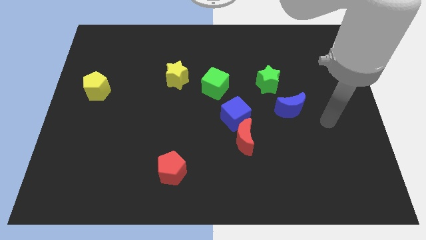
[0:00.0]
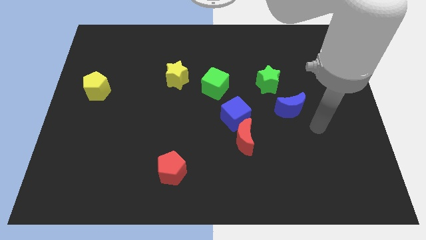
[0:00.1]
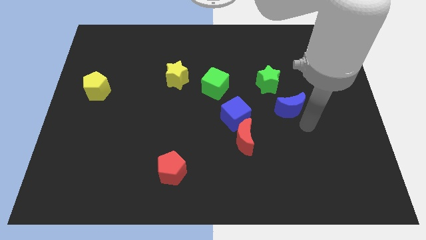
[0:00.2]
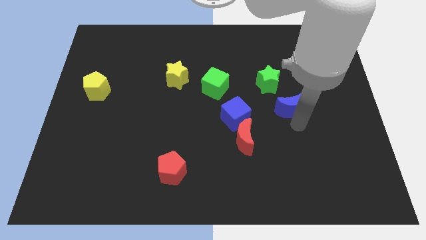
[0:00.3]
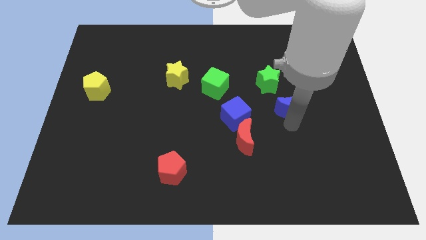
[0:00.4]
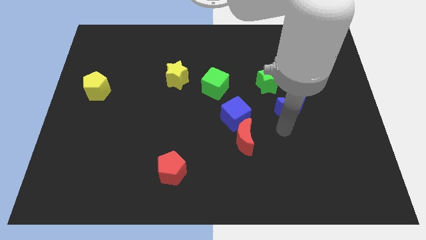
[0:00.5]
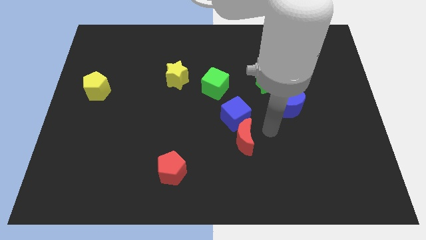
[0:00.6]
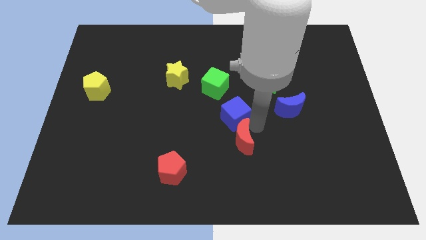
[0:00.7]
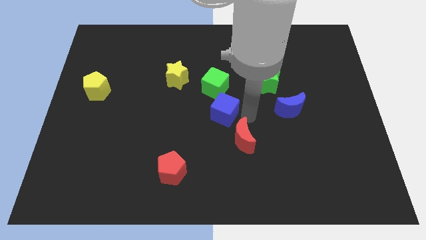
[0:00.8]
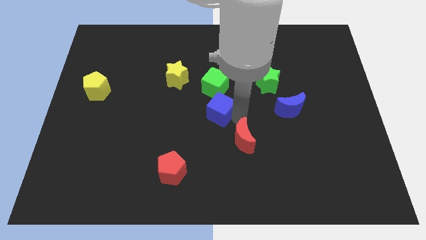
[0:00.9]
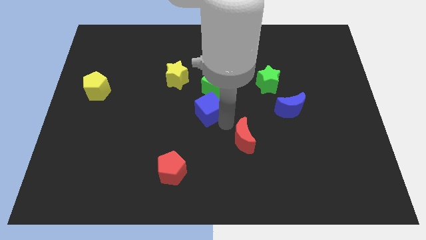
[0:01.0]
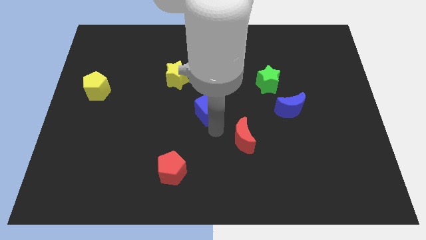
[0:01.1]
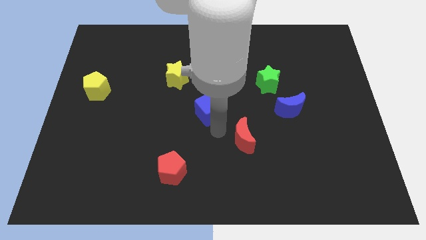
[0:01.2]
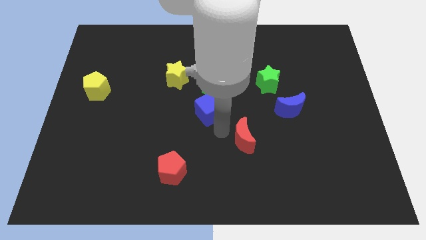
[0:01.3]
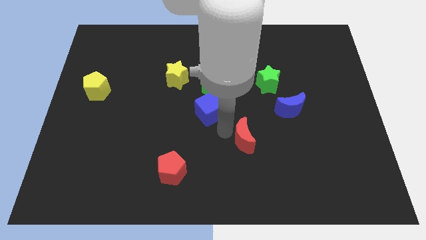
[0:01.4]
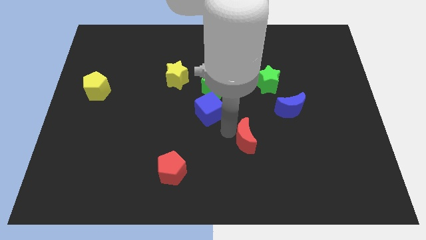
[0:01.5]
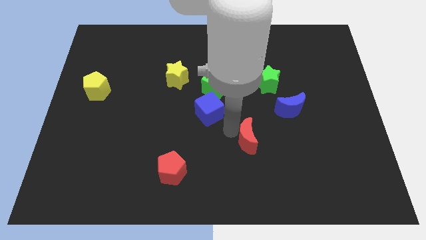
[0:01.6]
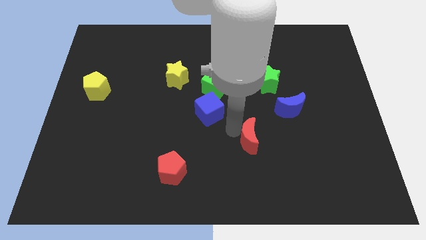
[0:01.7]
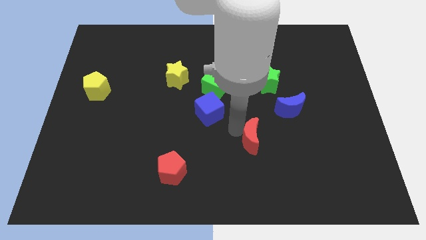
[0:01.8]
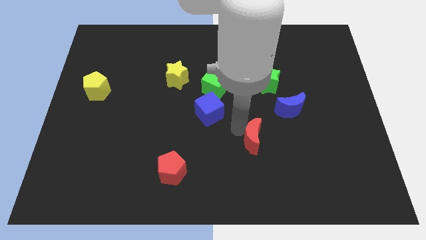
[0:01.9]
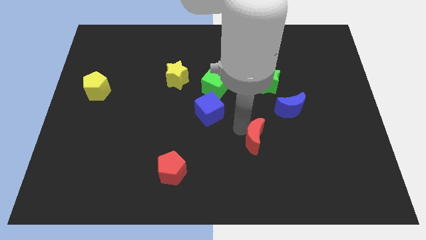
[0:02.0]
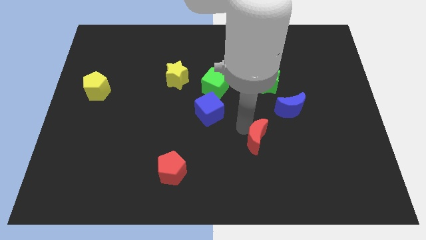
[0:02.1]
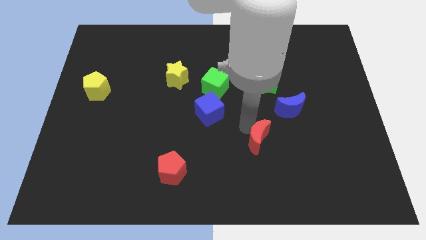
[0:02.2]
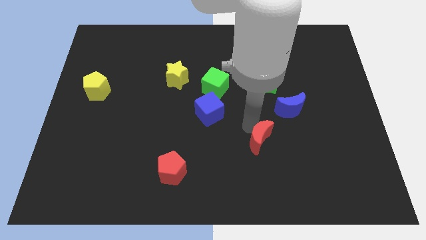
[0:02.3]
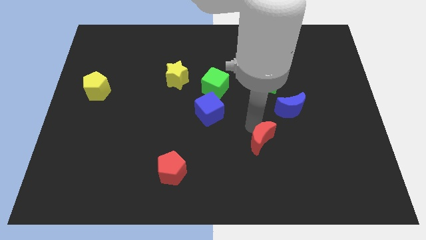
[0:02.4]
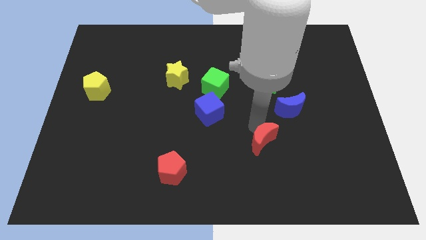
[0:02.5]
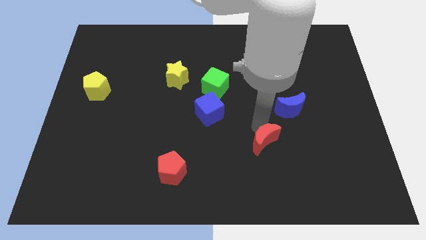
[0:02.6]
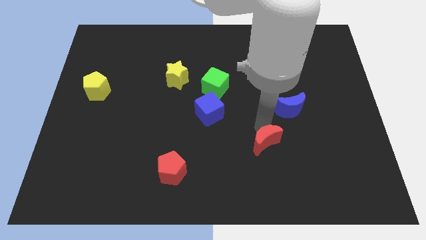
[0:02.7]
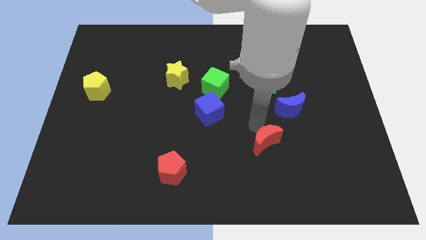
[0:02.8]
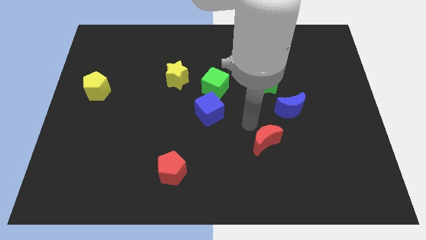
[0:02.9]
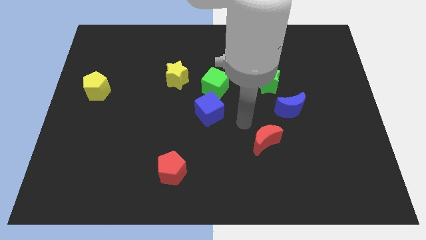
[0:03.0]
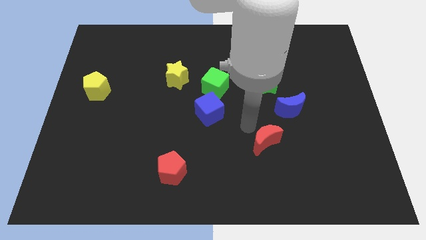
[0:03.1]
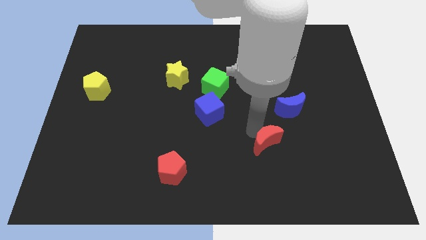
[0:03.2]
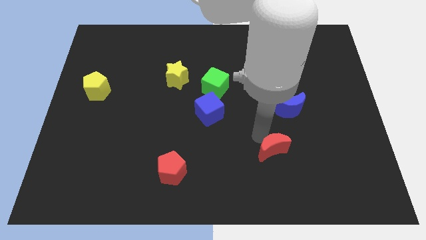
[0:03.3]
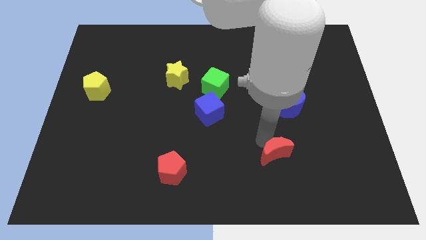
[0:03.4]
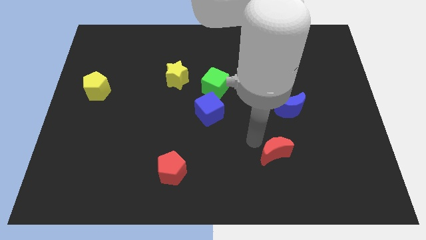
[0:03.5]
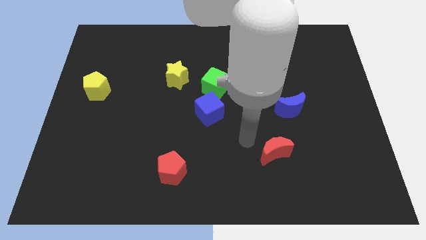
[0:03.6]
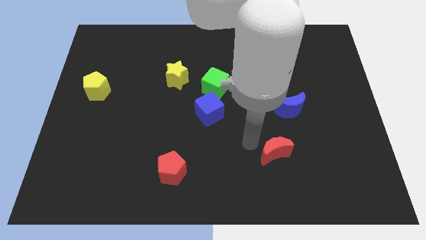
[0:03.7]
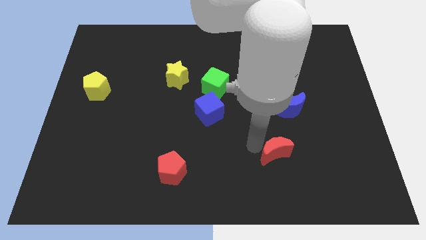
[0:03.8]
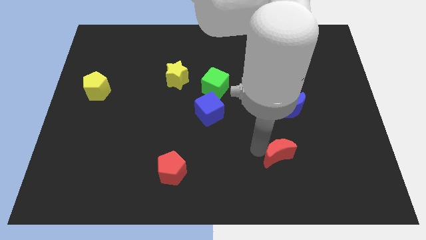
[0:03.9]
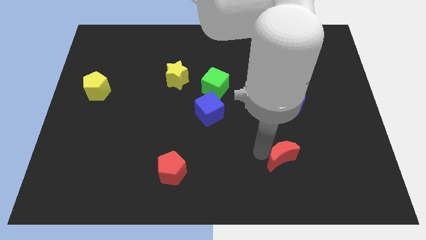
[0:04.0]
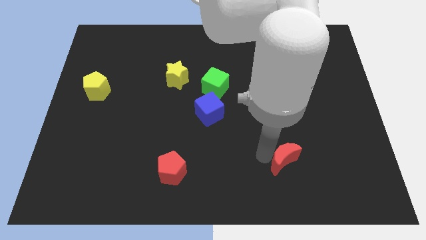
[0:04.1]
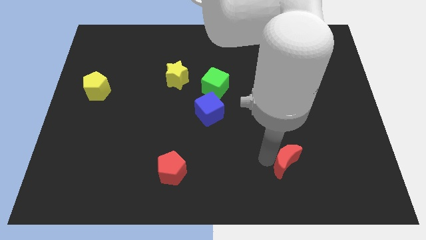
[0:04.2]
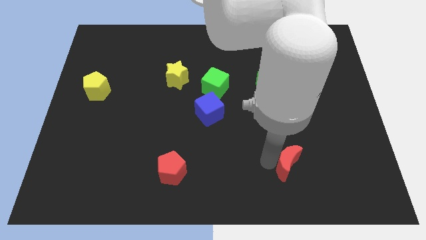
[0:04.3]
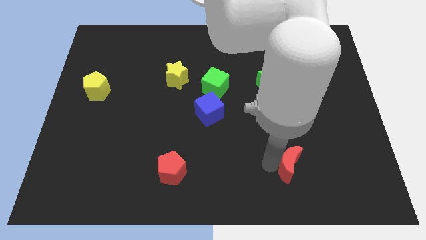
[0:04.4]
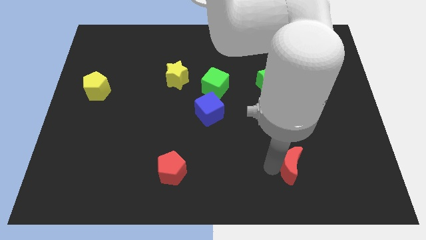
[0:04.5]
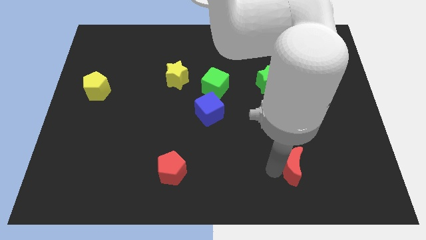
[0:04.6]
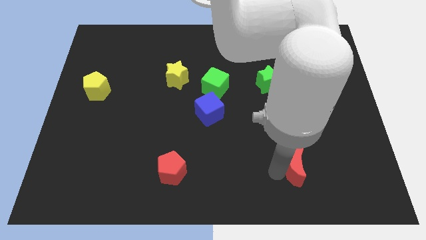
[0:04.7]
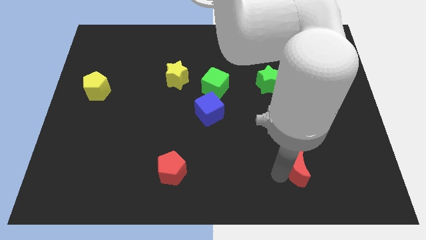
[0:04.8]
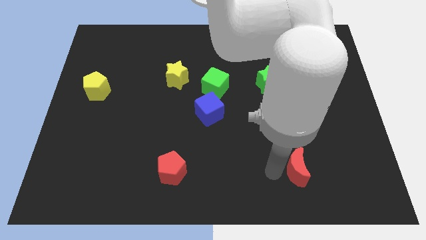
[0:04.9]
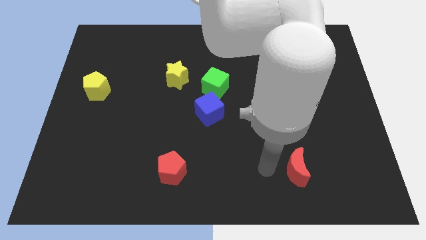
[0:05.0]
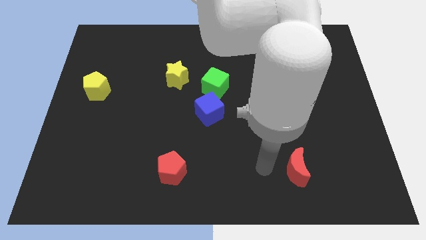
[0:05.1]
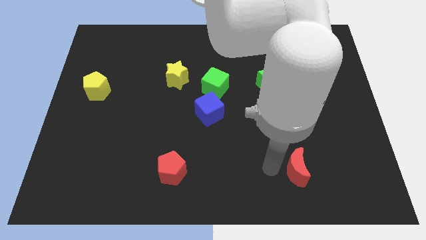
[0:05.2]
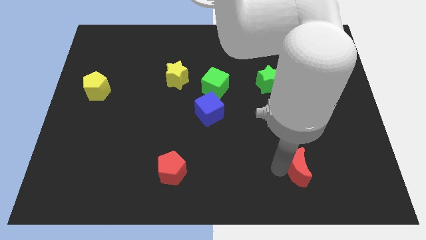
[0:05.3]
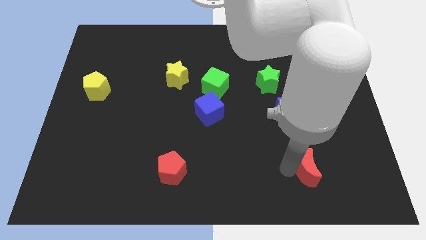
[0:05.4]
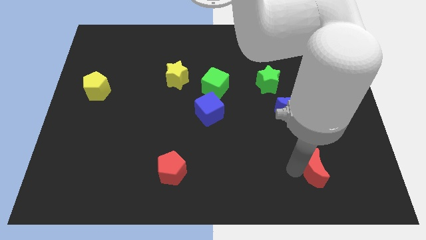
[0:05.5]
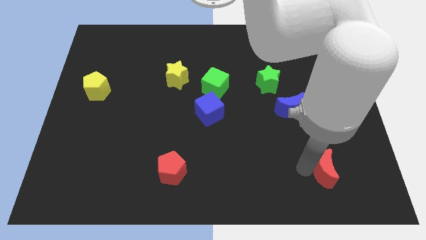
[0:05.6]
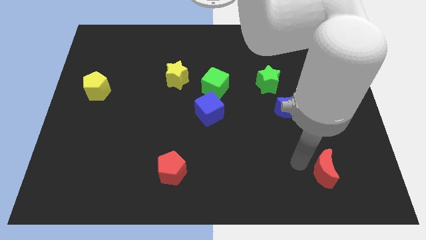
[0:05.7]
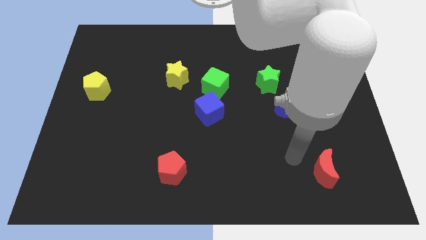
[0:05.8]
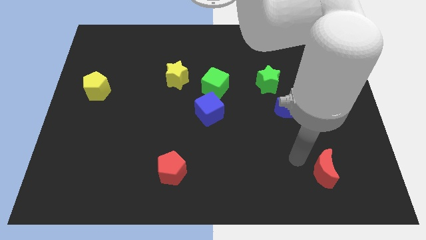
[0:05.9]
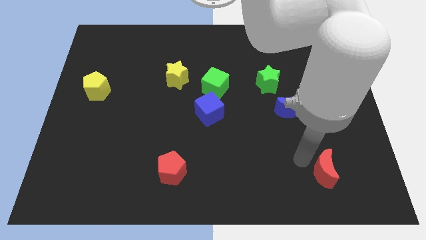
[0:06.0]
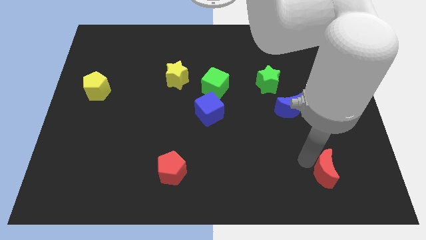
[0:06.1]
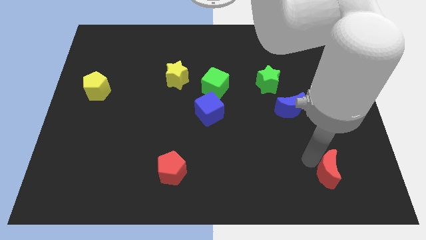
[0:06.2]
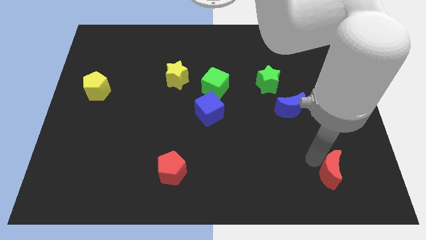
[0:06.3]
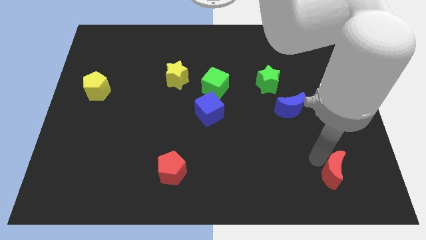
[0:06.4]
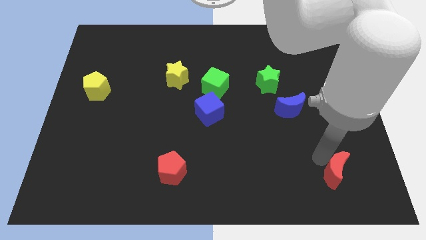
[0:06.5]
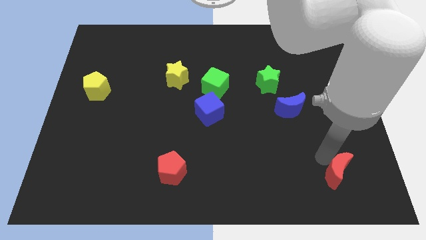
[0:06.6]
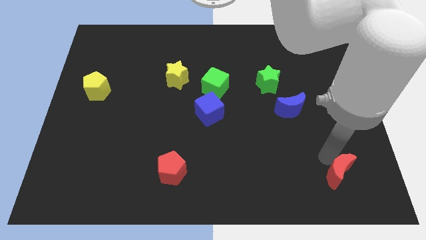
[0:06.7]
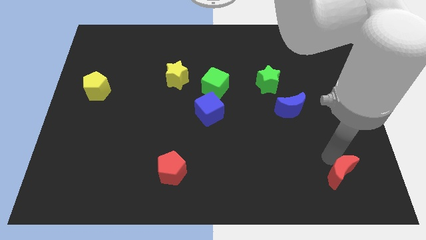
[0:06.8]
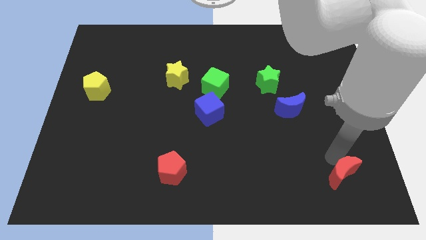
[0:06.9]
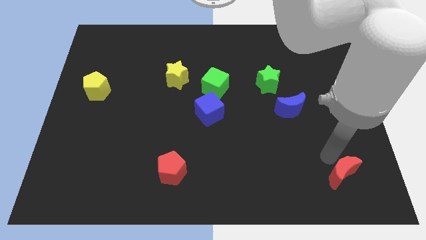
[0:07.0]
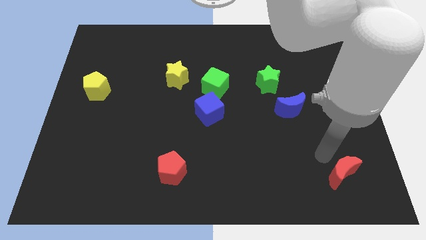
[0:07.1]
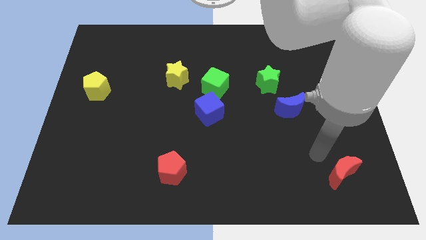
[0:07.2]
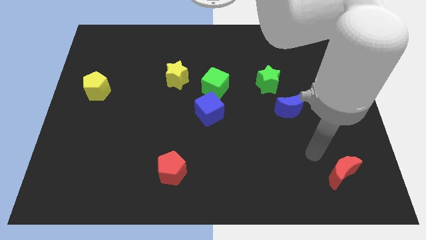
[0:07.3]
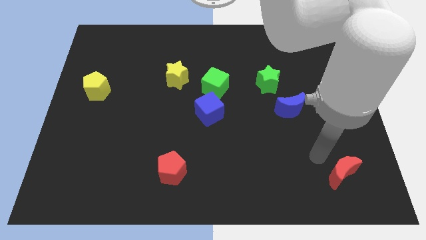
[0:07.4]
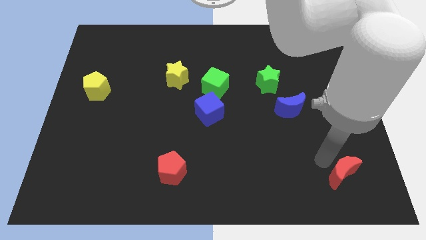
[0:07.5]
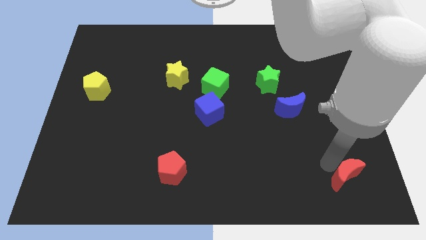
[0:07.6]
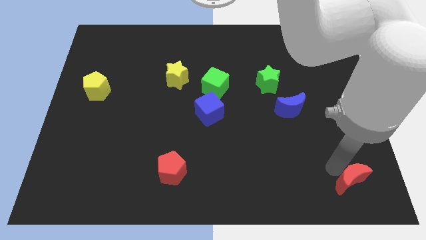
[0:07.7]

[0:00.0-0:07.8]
move the red moon to the bottom right corner
